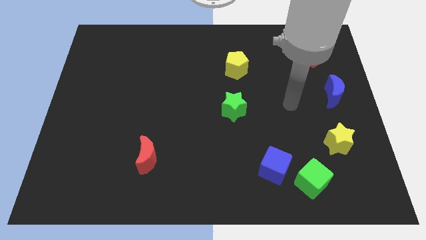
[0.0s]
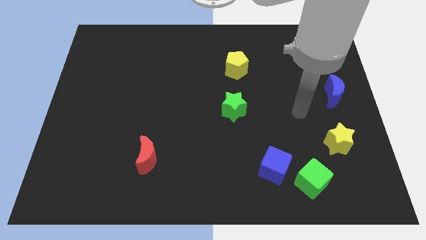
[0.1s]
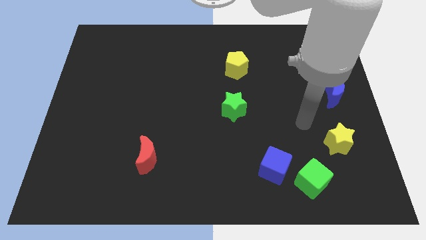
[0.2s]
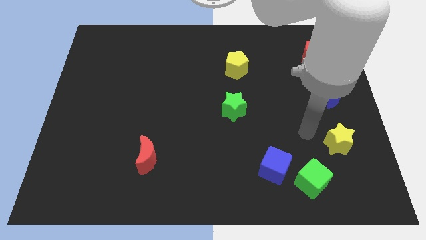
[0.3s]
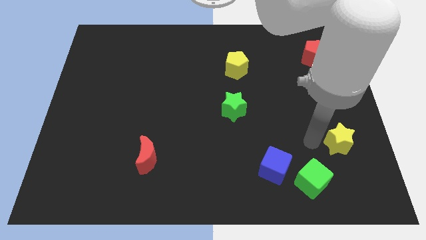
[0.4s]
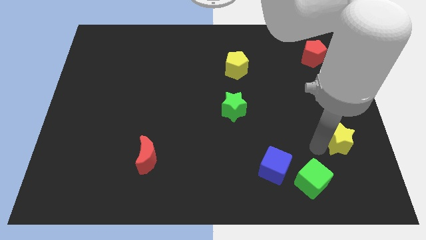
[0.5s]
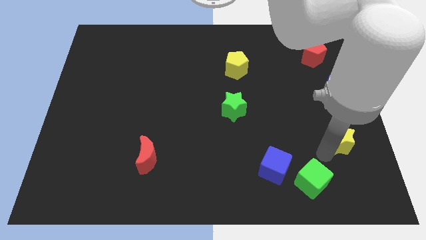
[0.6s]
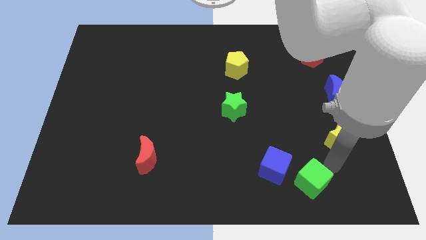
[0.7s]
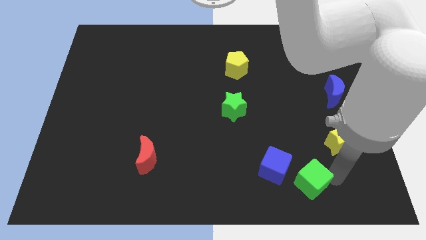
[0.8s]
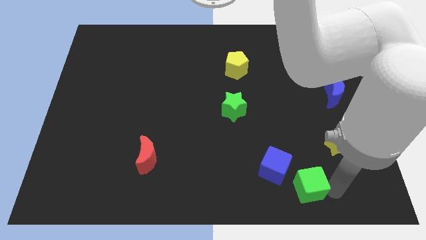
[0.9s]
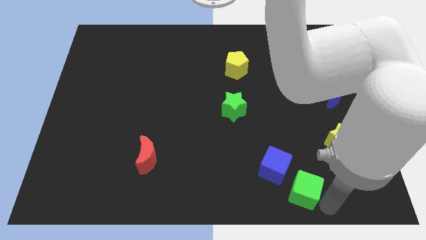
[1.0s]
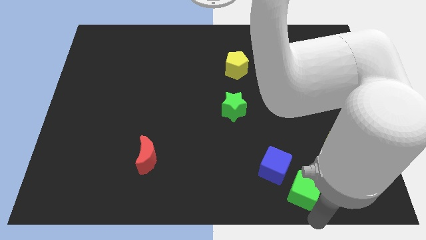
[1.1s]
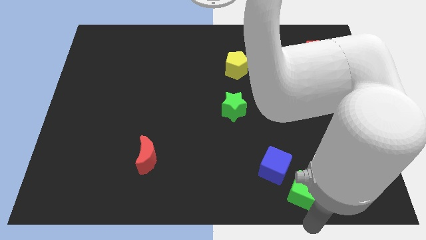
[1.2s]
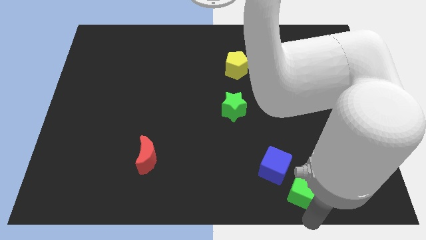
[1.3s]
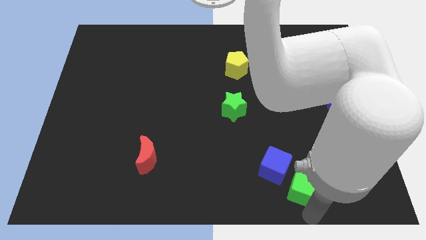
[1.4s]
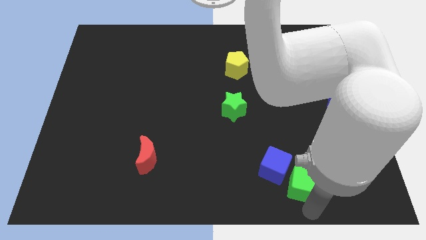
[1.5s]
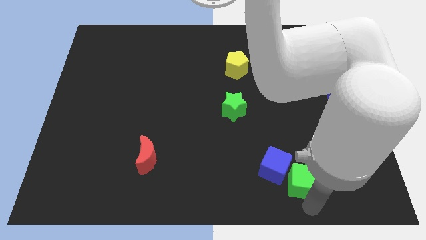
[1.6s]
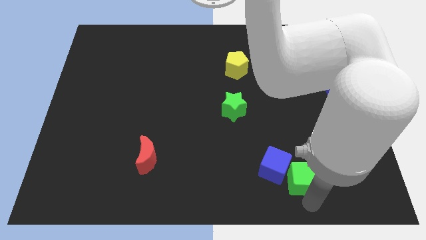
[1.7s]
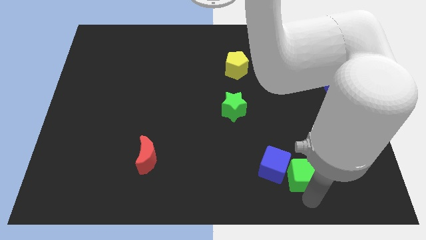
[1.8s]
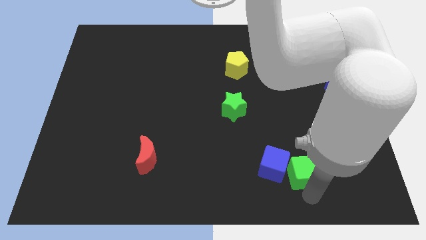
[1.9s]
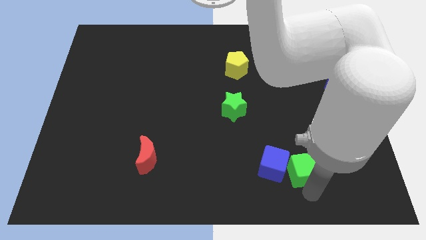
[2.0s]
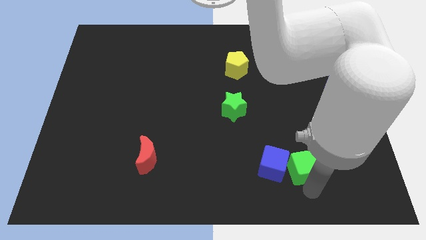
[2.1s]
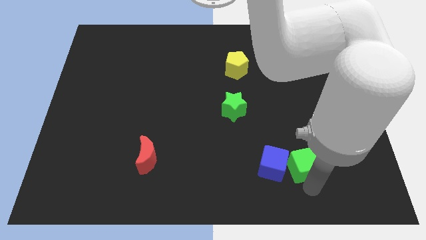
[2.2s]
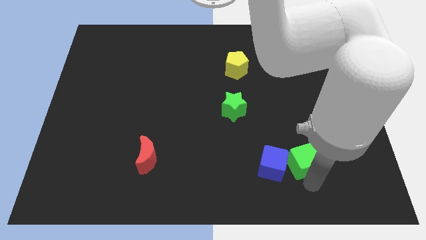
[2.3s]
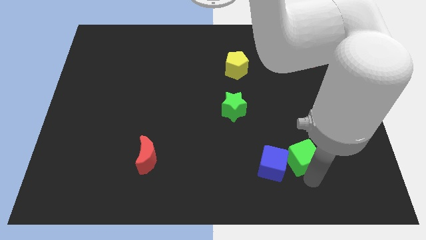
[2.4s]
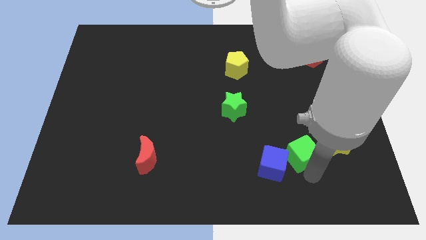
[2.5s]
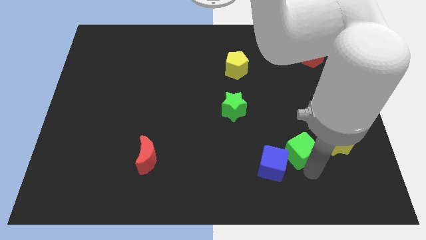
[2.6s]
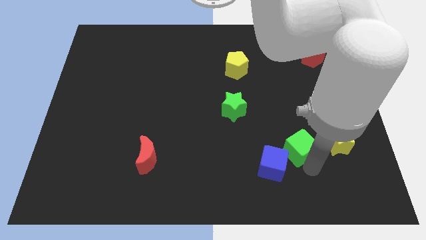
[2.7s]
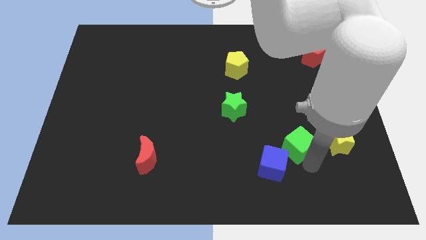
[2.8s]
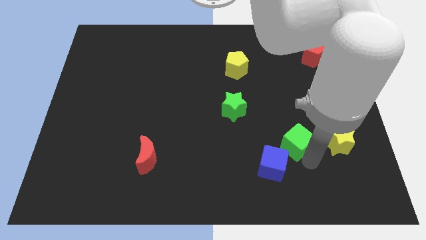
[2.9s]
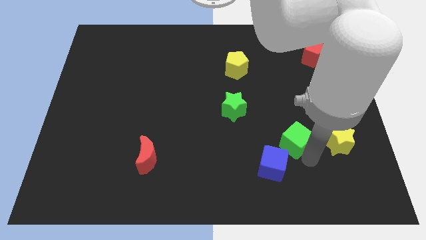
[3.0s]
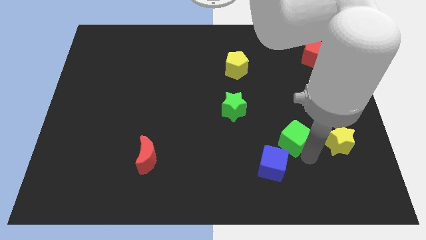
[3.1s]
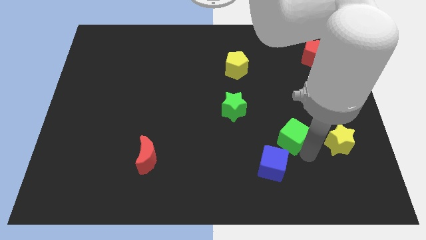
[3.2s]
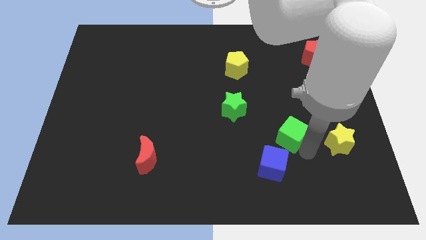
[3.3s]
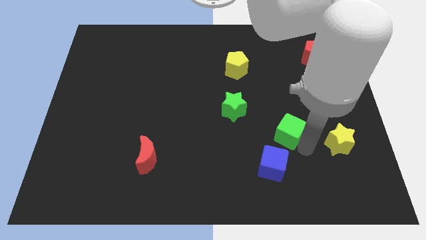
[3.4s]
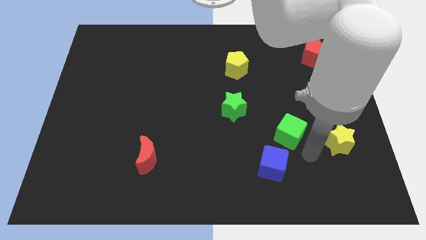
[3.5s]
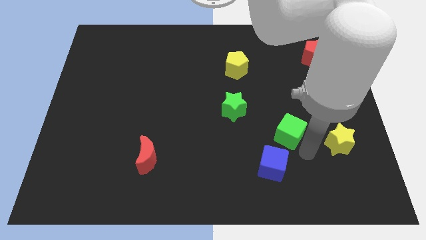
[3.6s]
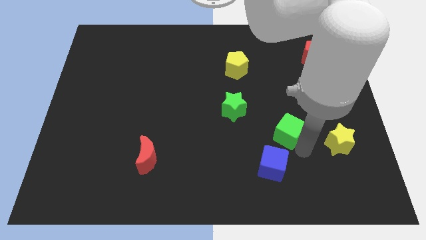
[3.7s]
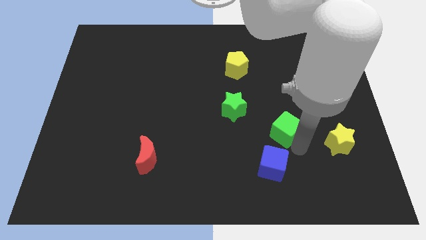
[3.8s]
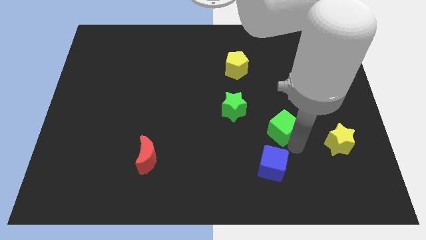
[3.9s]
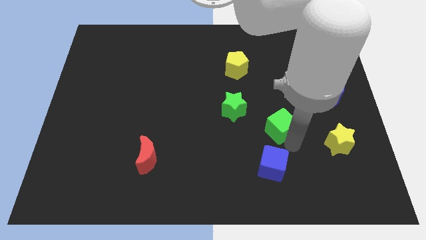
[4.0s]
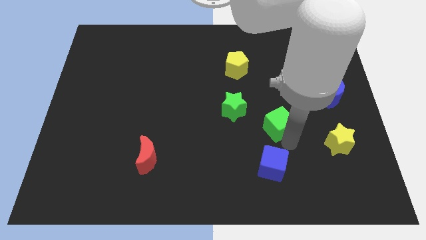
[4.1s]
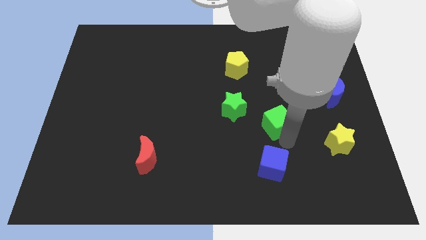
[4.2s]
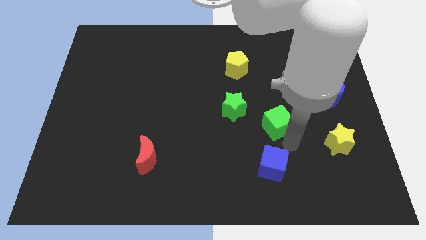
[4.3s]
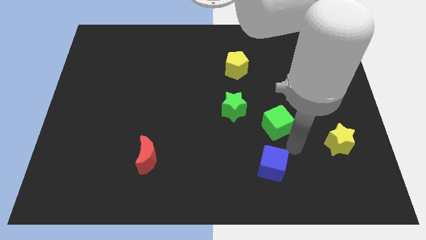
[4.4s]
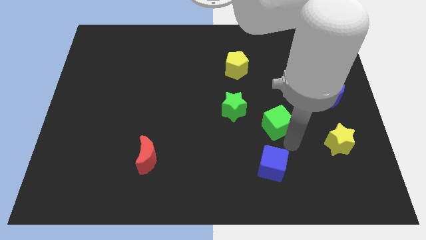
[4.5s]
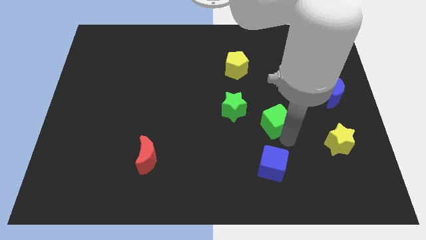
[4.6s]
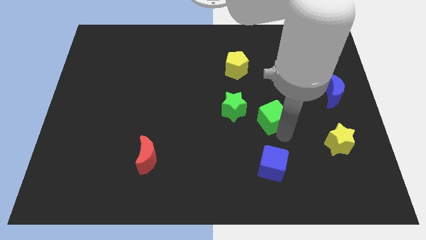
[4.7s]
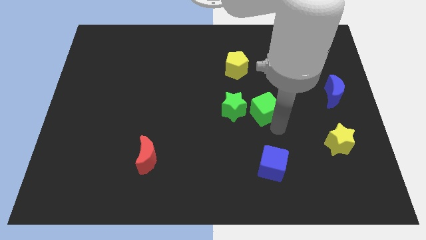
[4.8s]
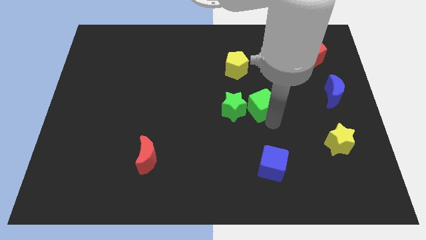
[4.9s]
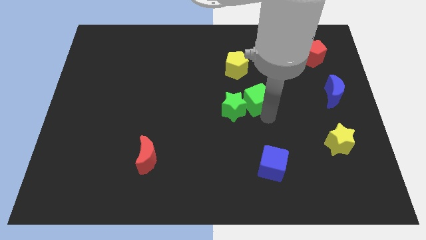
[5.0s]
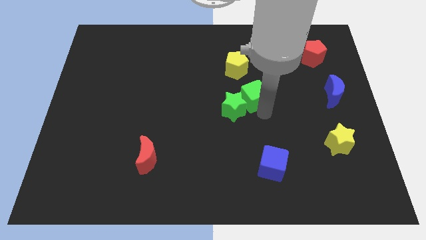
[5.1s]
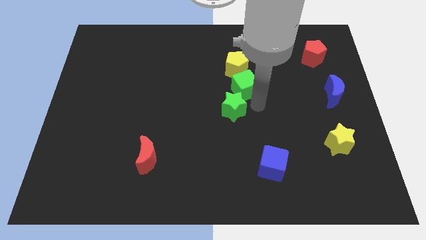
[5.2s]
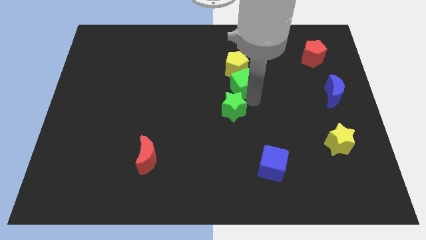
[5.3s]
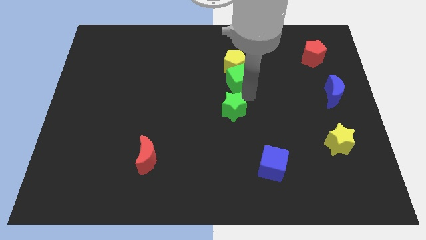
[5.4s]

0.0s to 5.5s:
slide the green cube to the yellow pentagon

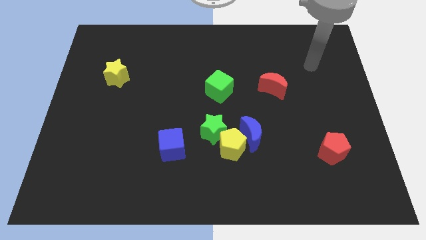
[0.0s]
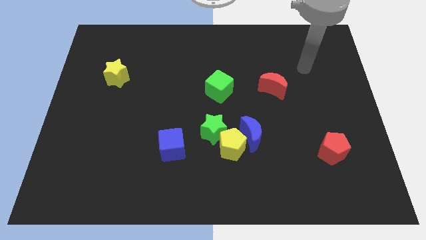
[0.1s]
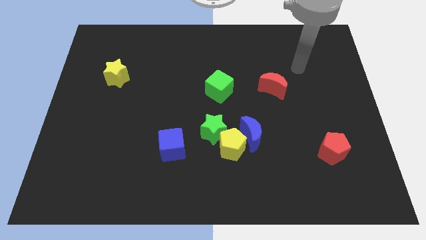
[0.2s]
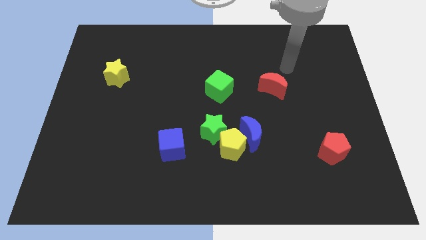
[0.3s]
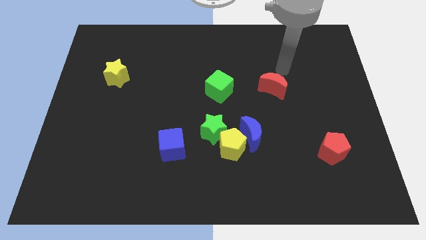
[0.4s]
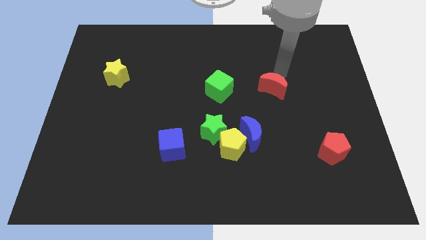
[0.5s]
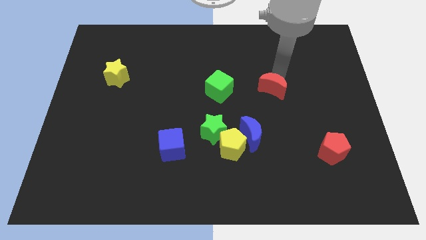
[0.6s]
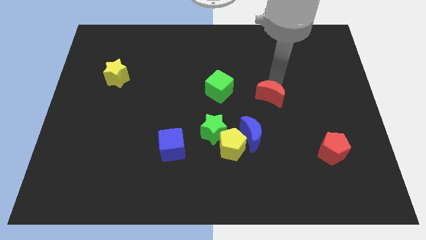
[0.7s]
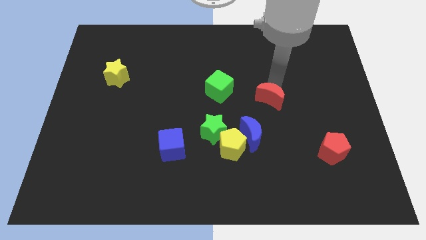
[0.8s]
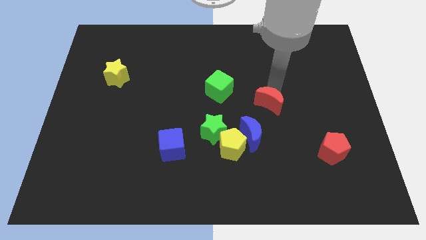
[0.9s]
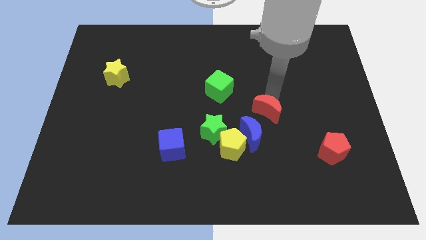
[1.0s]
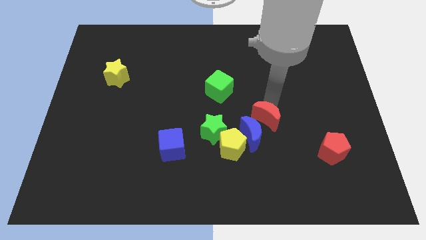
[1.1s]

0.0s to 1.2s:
slide the red moon to the blue moon

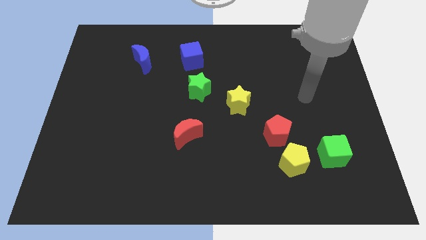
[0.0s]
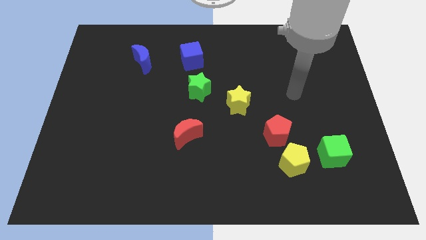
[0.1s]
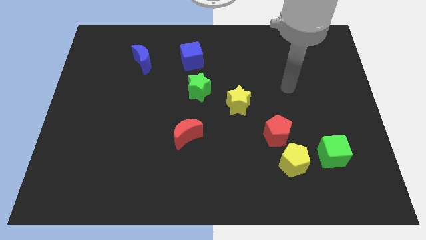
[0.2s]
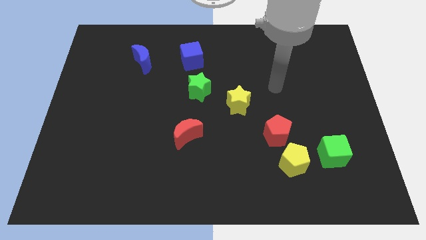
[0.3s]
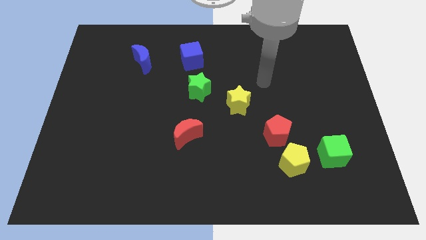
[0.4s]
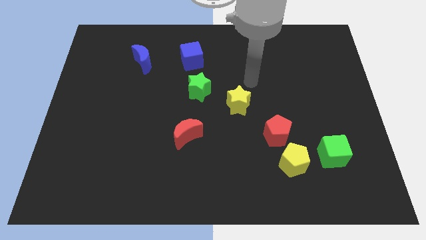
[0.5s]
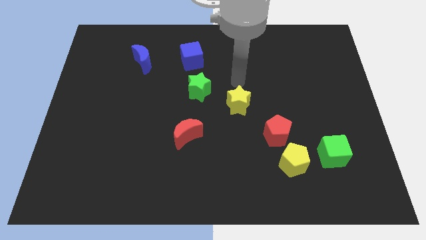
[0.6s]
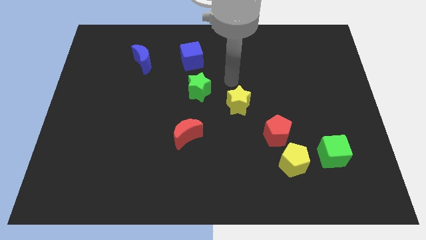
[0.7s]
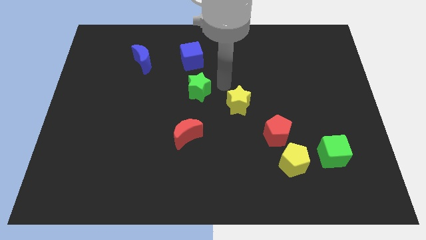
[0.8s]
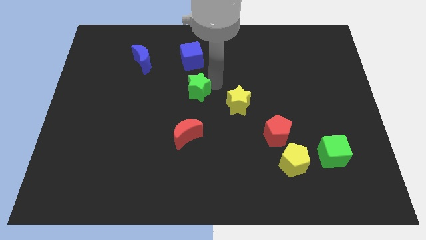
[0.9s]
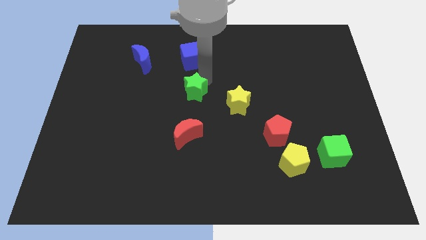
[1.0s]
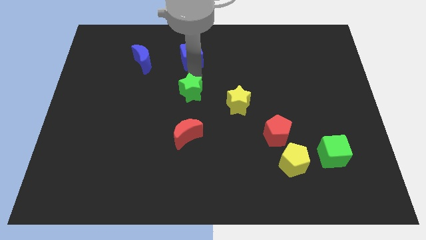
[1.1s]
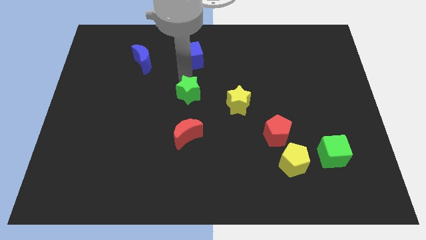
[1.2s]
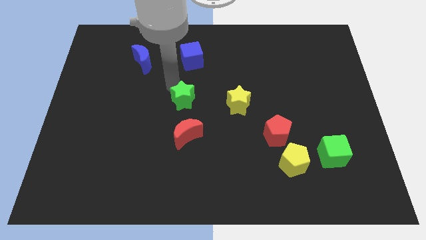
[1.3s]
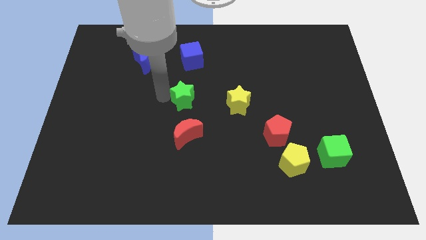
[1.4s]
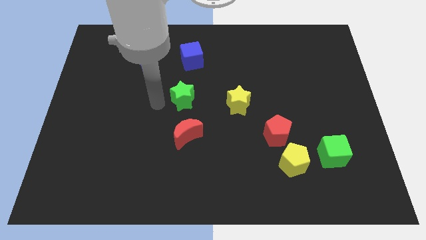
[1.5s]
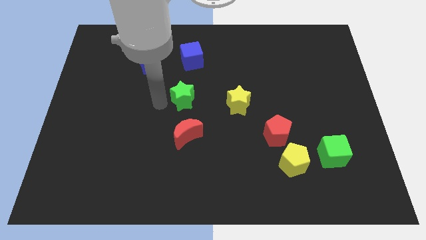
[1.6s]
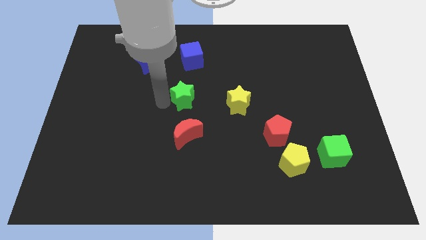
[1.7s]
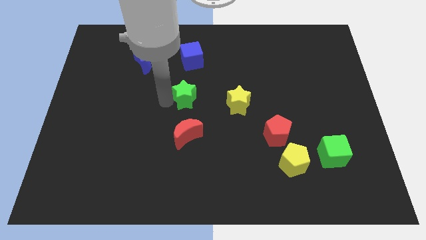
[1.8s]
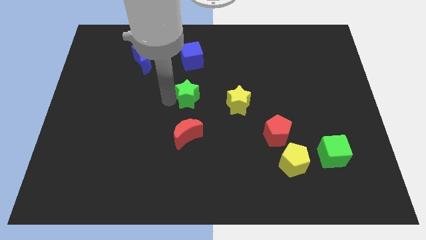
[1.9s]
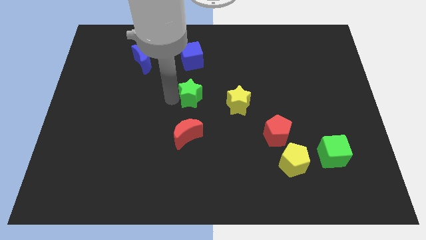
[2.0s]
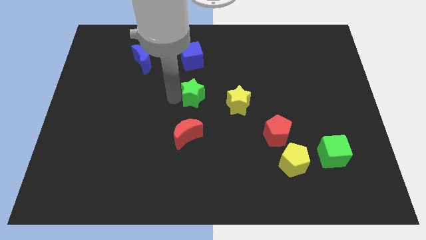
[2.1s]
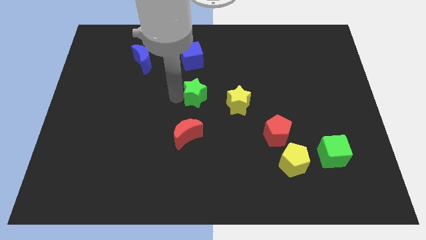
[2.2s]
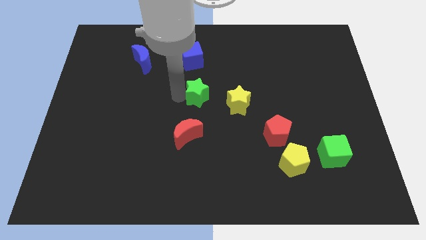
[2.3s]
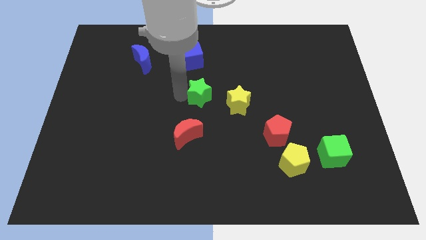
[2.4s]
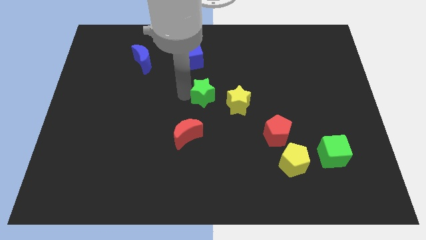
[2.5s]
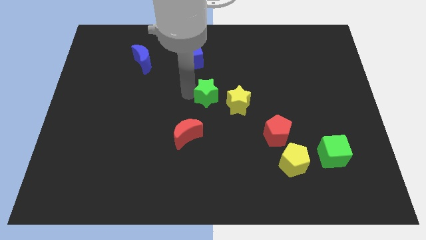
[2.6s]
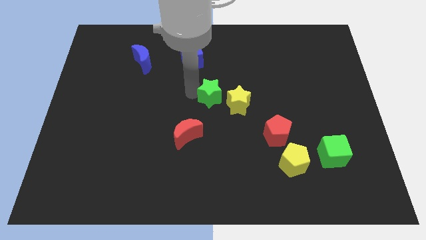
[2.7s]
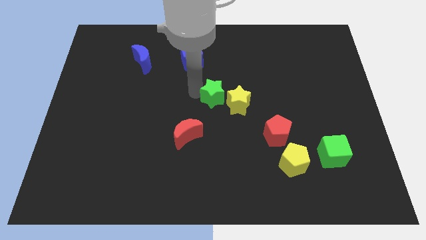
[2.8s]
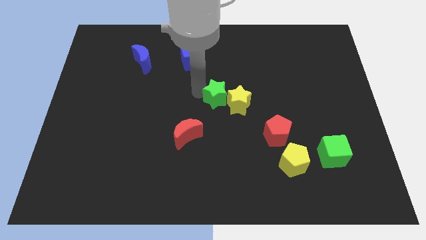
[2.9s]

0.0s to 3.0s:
push the green star close to the yellow star
